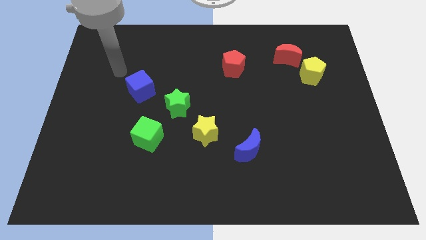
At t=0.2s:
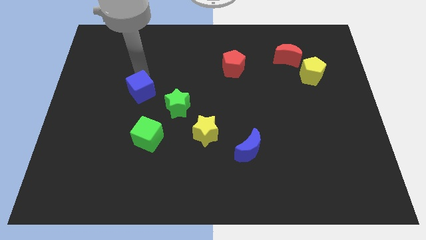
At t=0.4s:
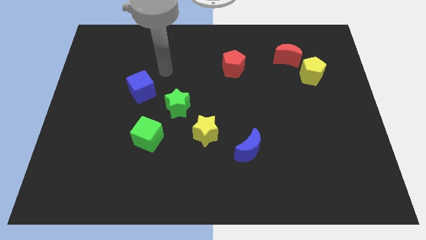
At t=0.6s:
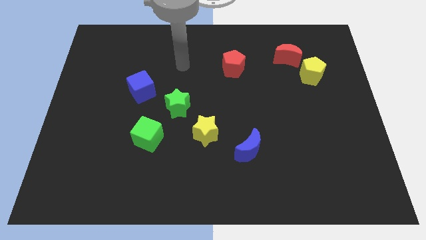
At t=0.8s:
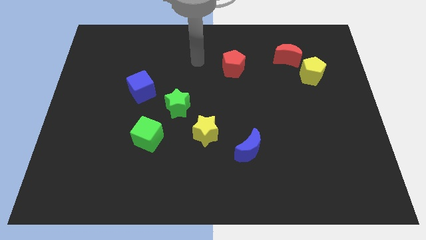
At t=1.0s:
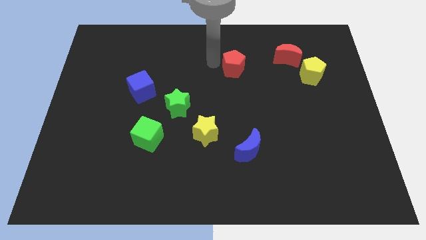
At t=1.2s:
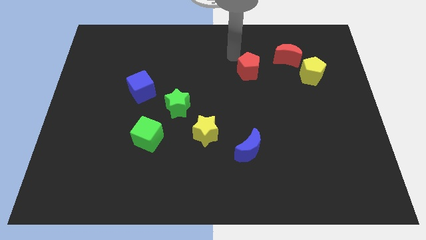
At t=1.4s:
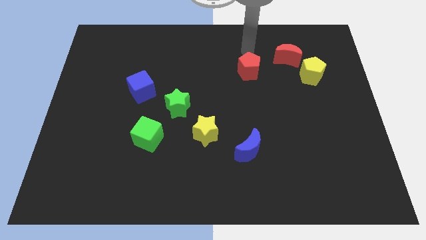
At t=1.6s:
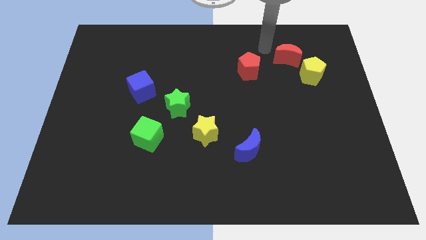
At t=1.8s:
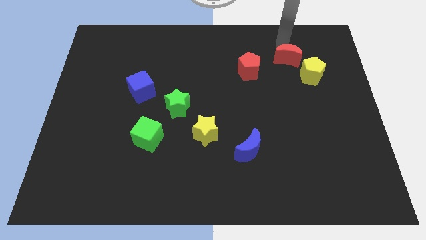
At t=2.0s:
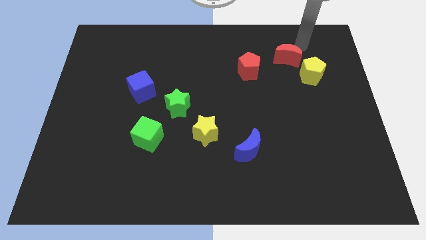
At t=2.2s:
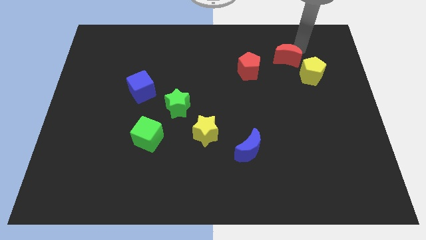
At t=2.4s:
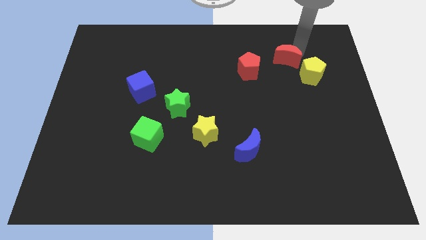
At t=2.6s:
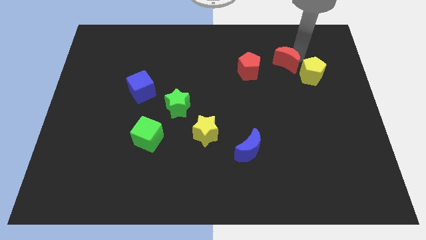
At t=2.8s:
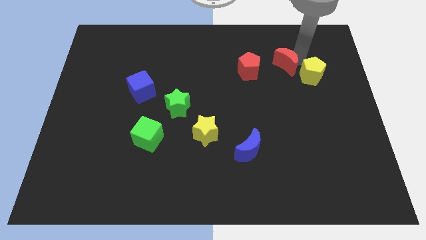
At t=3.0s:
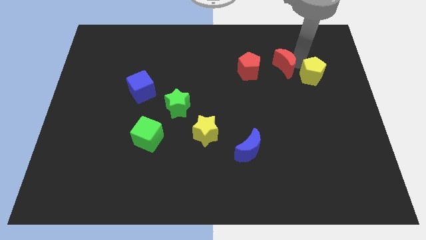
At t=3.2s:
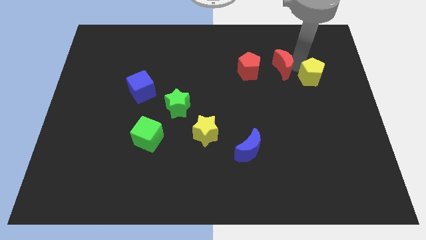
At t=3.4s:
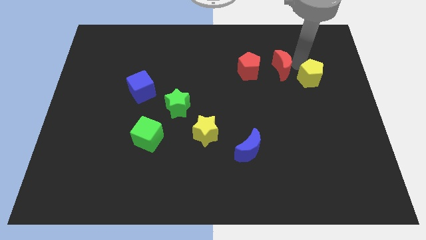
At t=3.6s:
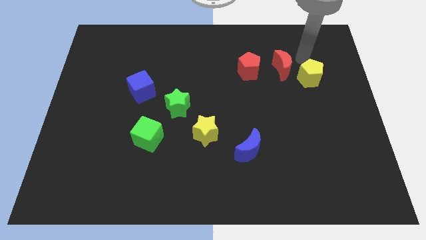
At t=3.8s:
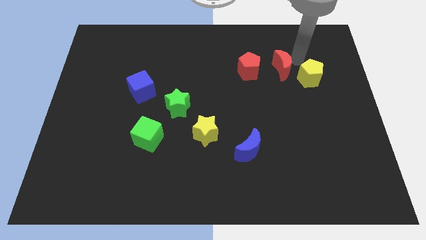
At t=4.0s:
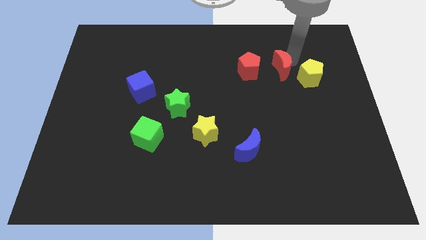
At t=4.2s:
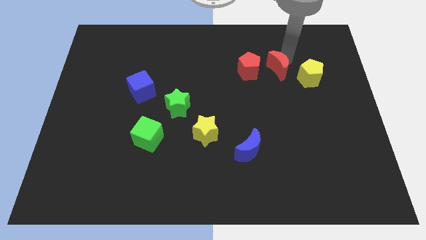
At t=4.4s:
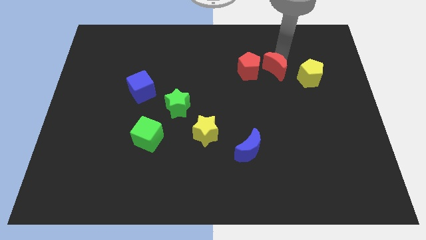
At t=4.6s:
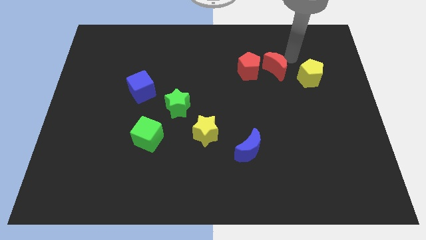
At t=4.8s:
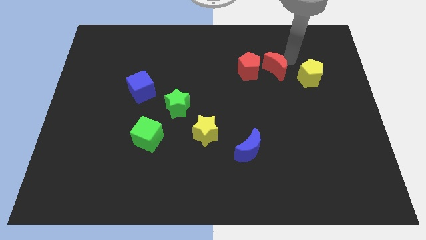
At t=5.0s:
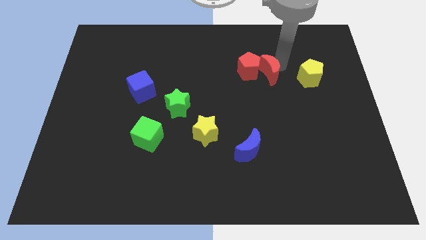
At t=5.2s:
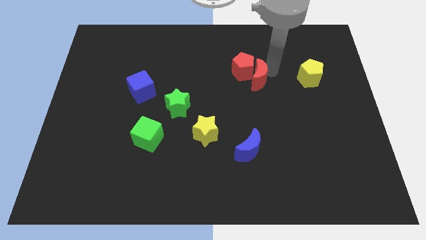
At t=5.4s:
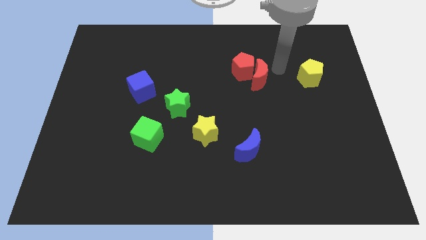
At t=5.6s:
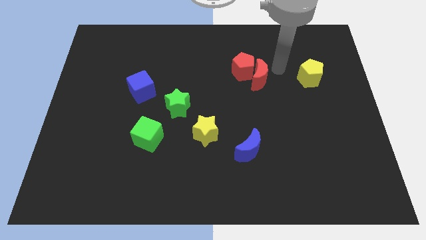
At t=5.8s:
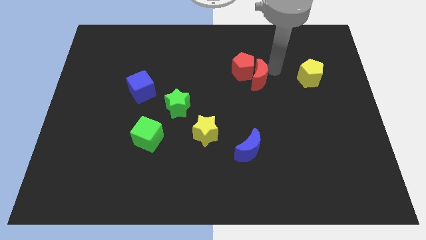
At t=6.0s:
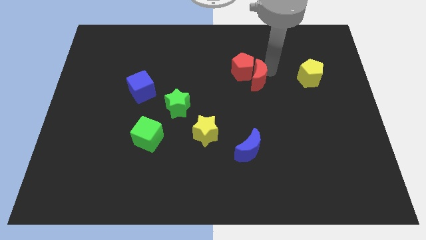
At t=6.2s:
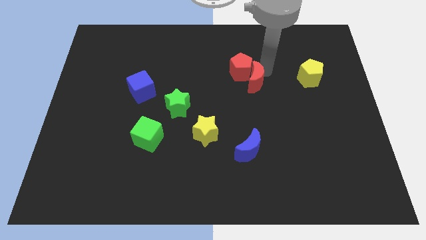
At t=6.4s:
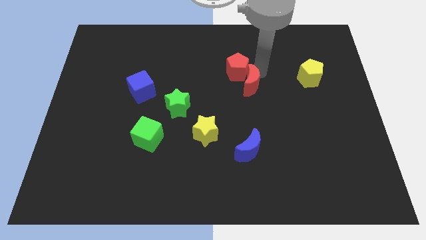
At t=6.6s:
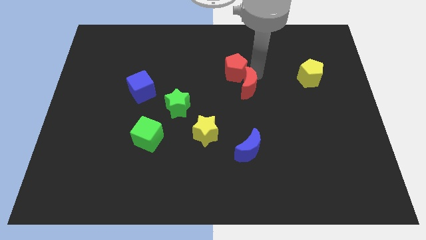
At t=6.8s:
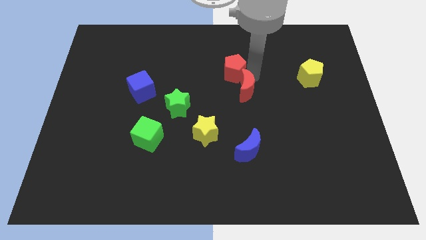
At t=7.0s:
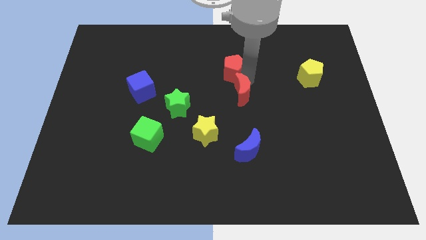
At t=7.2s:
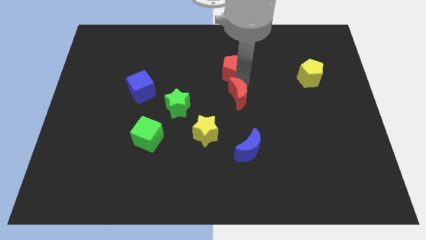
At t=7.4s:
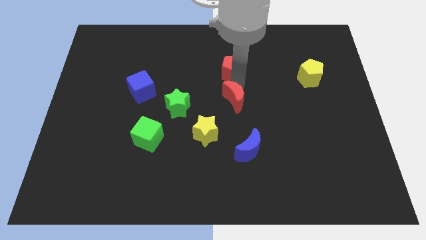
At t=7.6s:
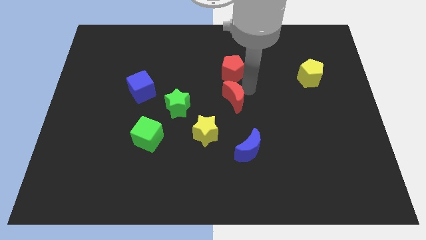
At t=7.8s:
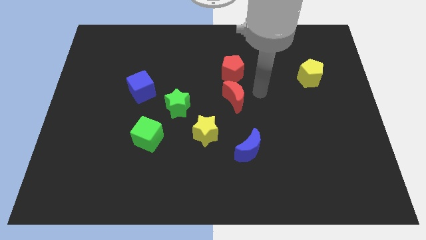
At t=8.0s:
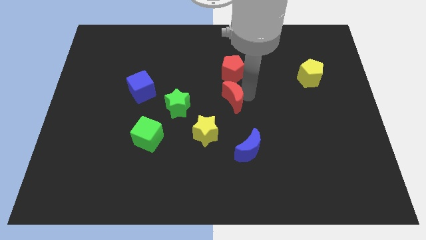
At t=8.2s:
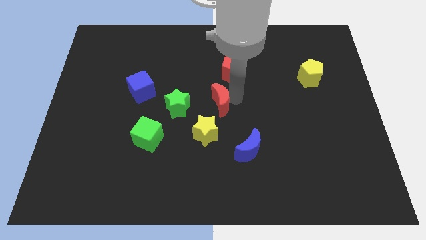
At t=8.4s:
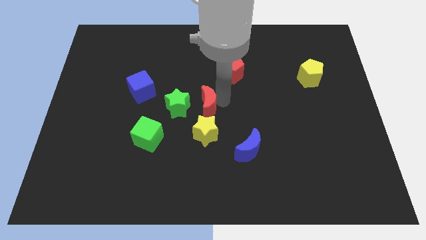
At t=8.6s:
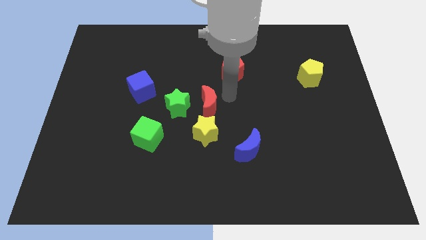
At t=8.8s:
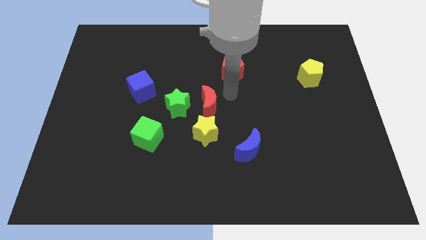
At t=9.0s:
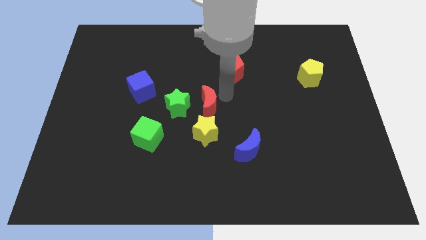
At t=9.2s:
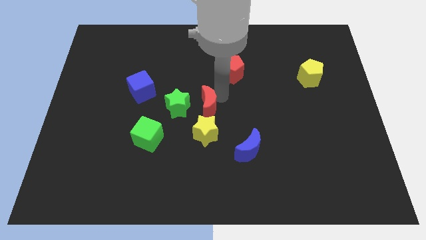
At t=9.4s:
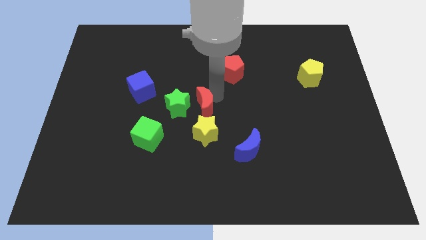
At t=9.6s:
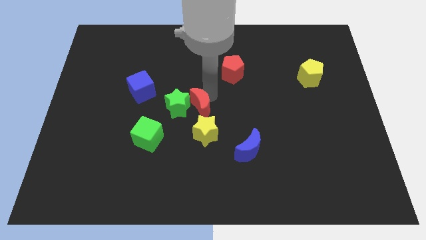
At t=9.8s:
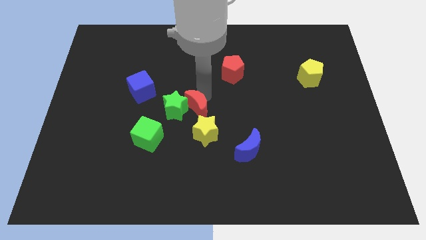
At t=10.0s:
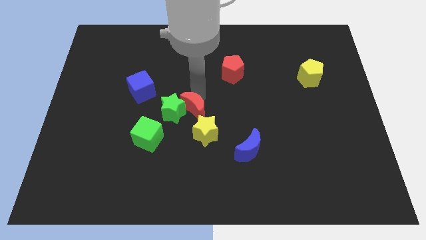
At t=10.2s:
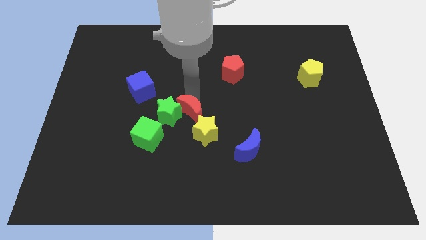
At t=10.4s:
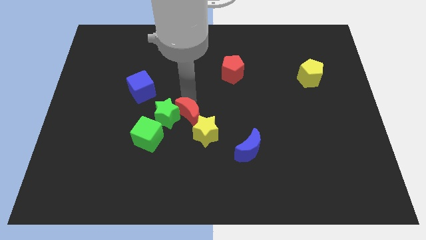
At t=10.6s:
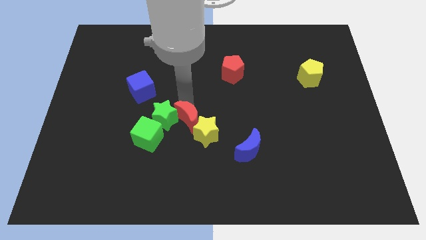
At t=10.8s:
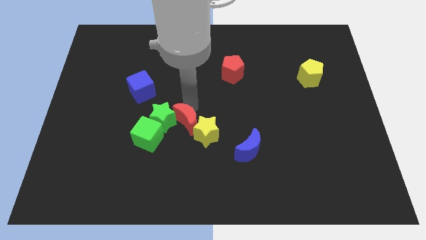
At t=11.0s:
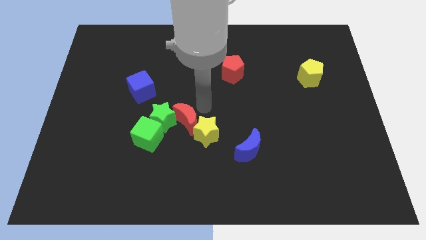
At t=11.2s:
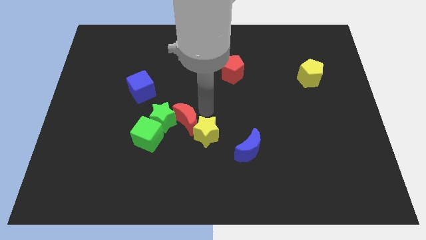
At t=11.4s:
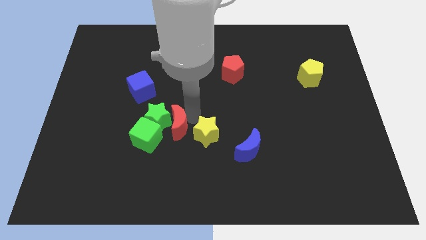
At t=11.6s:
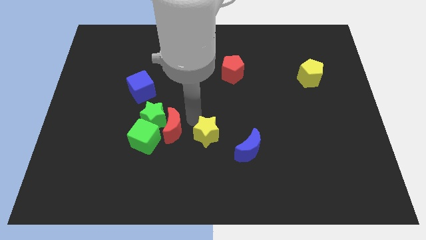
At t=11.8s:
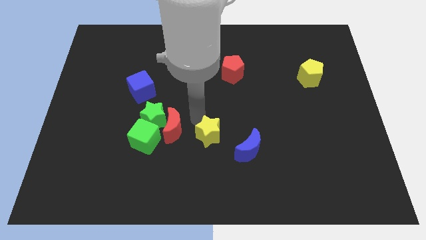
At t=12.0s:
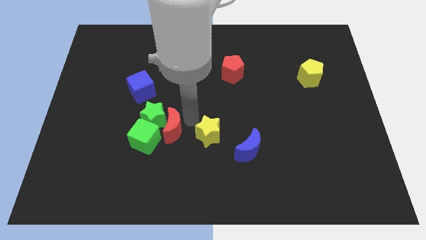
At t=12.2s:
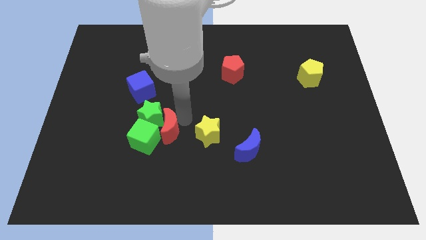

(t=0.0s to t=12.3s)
push the red moon towards the green cube

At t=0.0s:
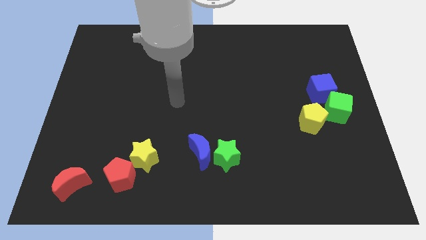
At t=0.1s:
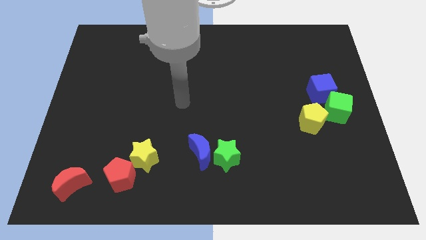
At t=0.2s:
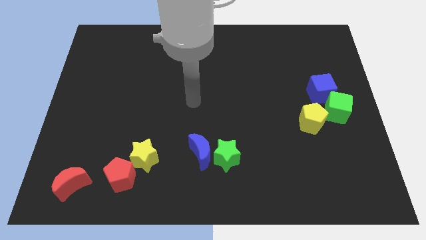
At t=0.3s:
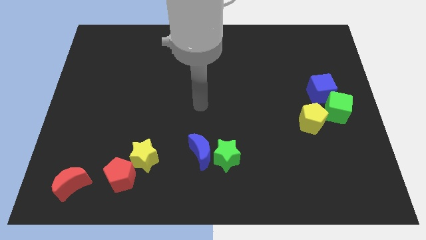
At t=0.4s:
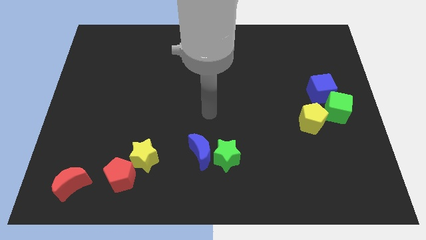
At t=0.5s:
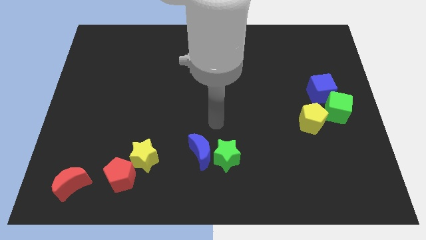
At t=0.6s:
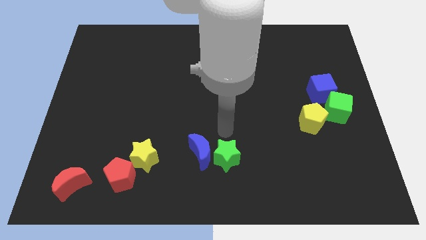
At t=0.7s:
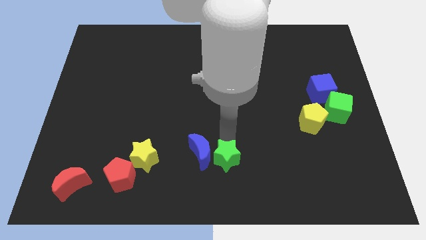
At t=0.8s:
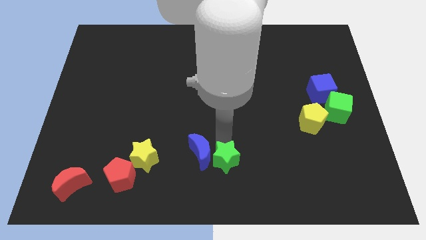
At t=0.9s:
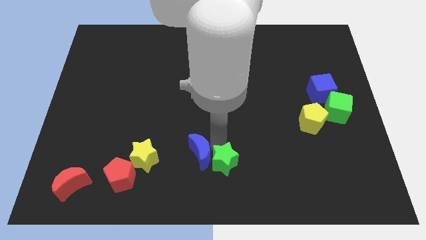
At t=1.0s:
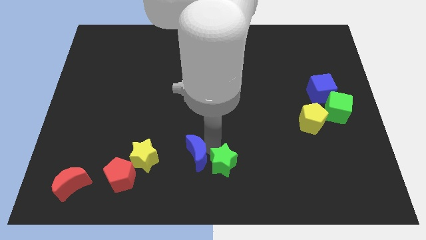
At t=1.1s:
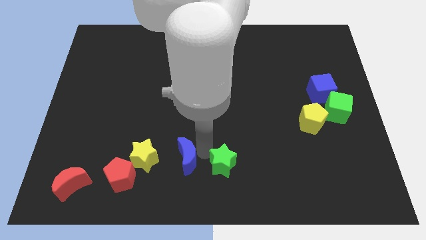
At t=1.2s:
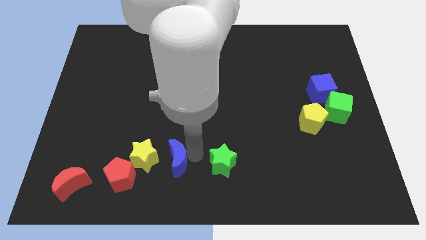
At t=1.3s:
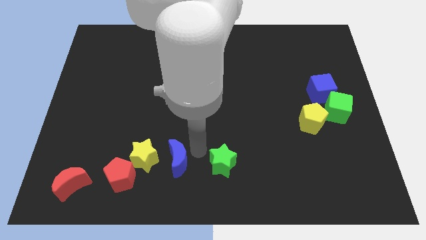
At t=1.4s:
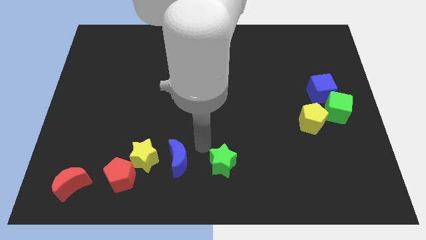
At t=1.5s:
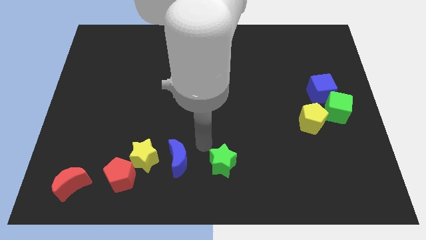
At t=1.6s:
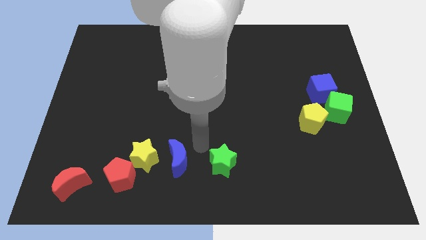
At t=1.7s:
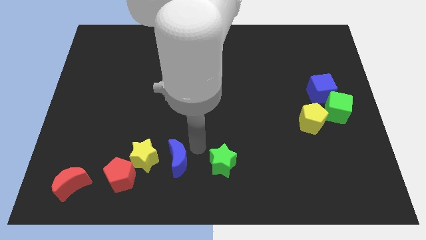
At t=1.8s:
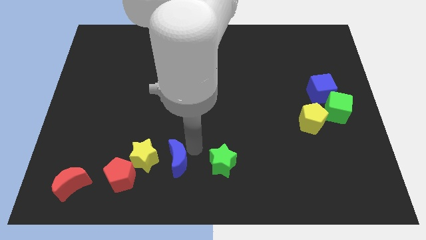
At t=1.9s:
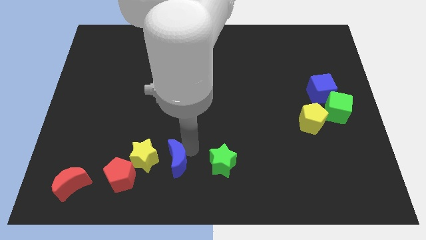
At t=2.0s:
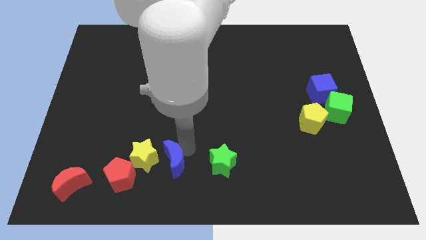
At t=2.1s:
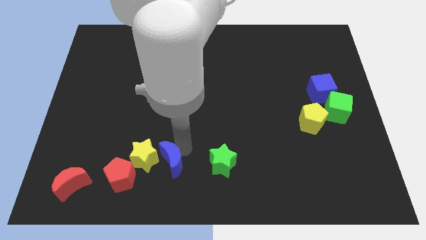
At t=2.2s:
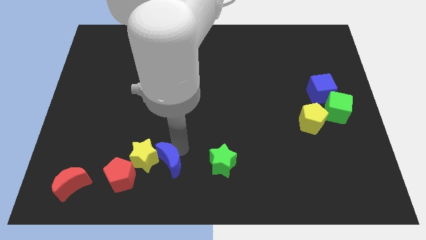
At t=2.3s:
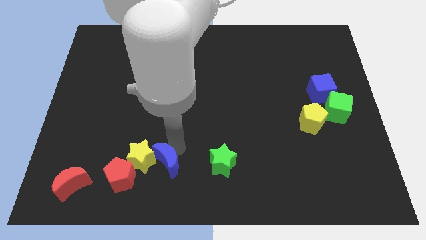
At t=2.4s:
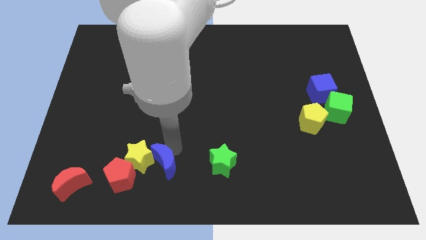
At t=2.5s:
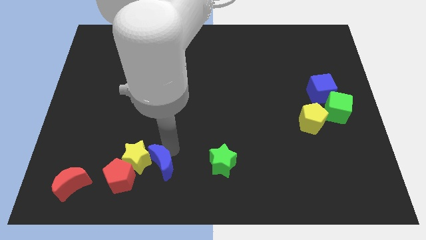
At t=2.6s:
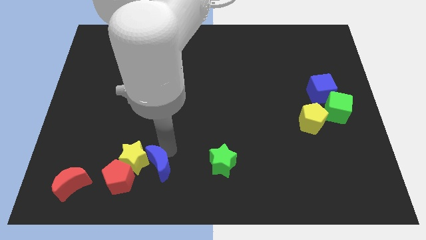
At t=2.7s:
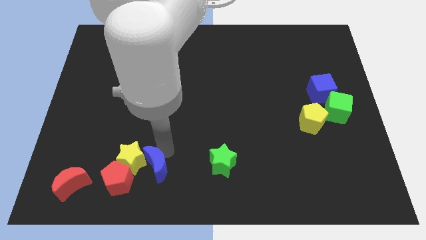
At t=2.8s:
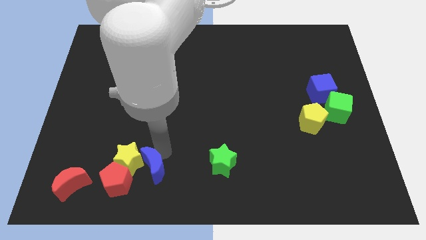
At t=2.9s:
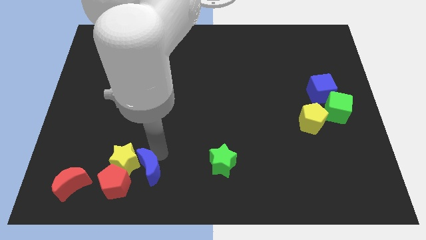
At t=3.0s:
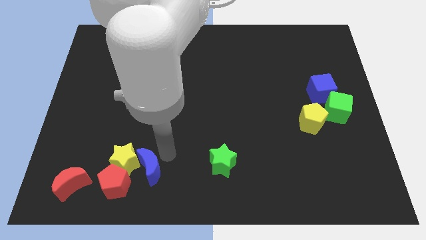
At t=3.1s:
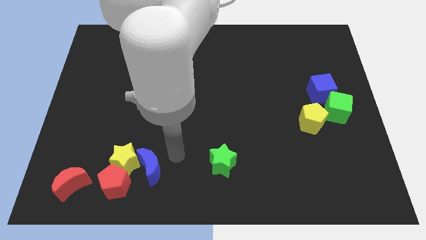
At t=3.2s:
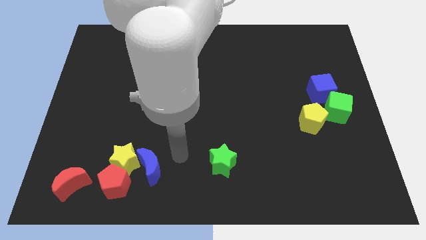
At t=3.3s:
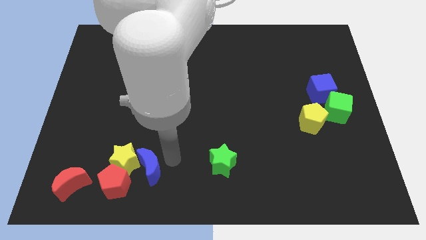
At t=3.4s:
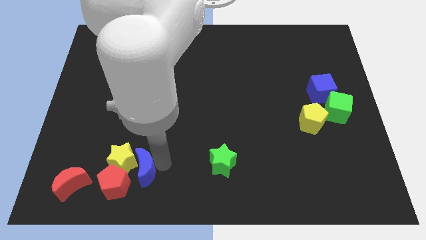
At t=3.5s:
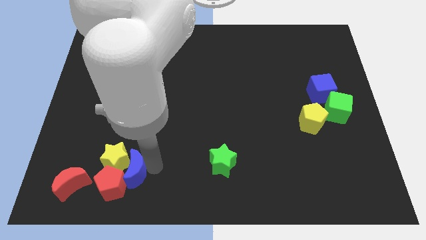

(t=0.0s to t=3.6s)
move the blue moon next to the red pentagon
